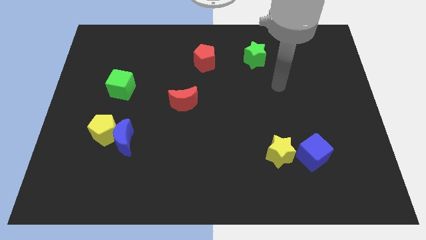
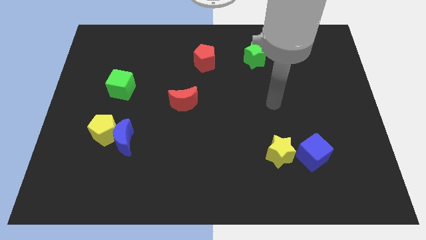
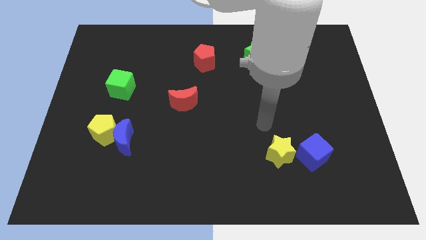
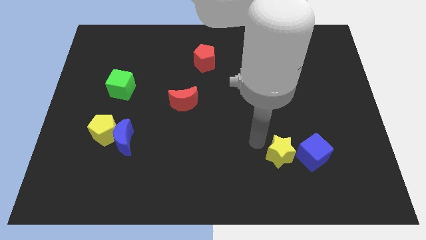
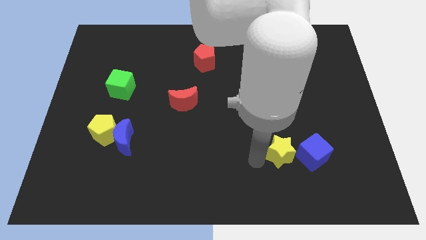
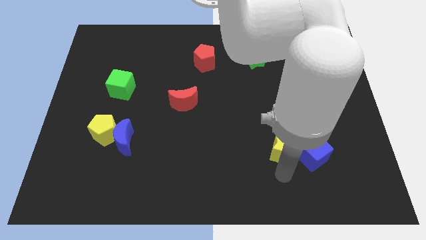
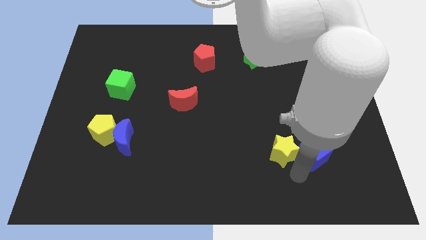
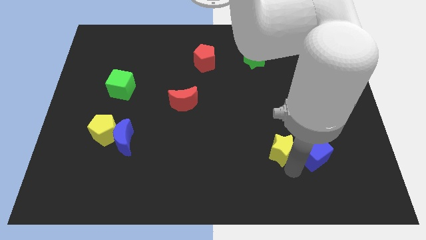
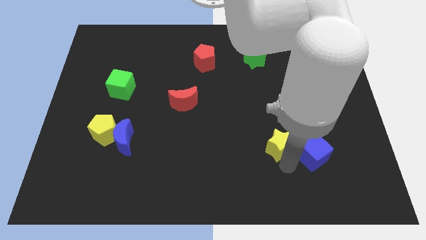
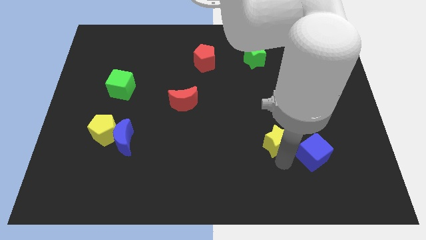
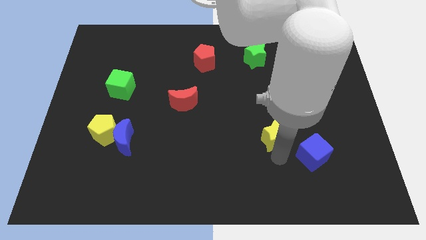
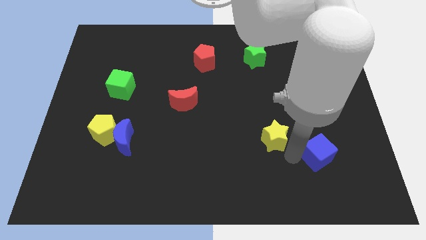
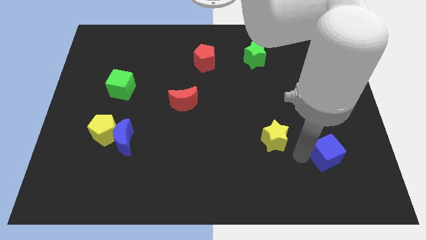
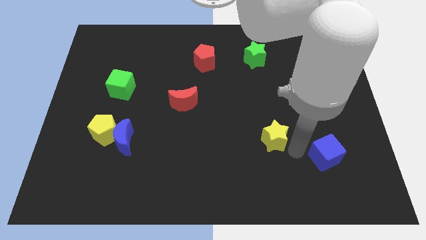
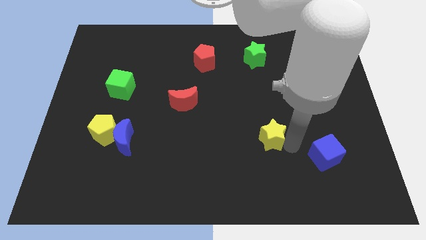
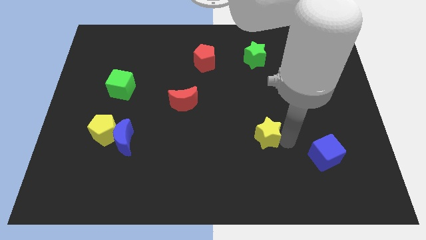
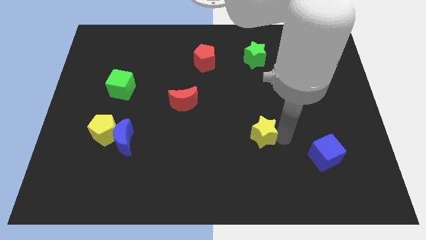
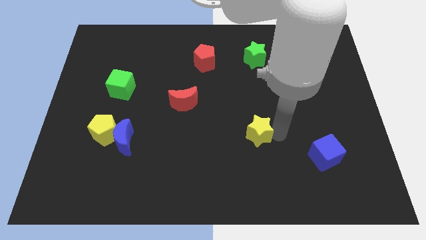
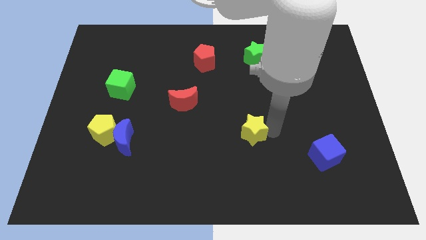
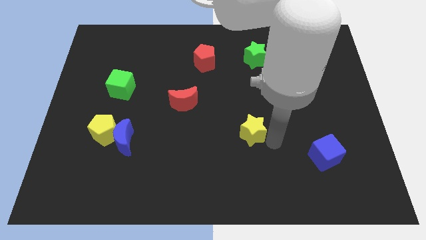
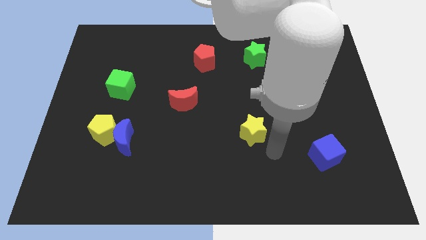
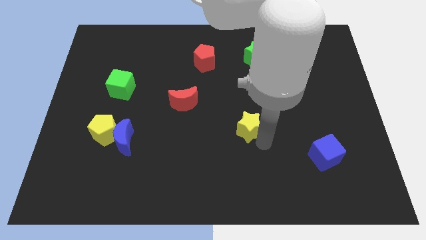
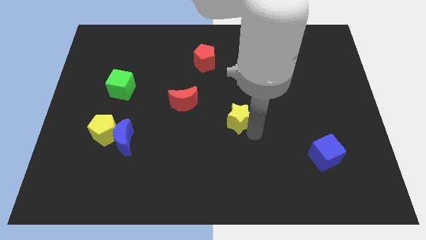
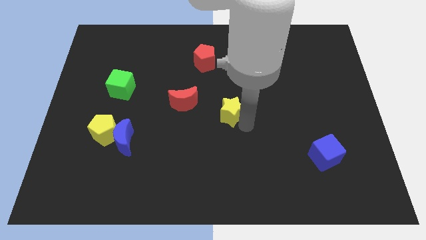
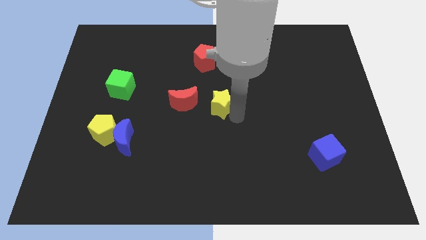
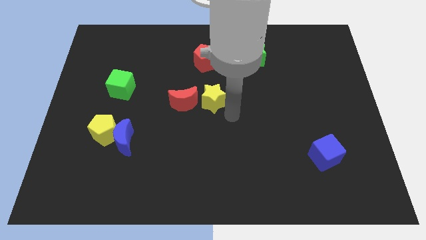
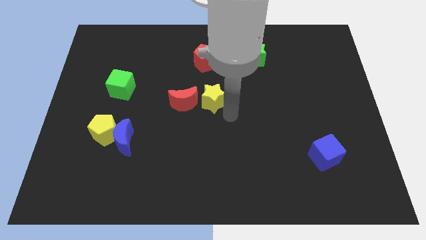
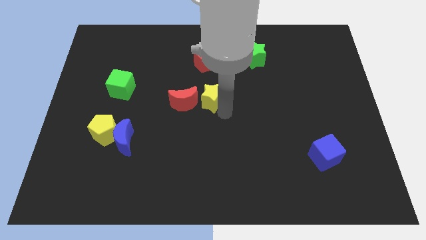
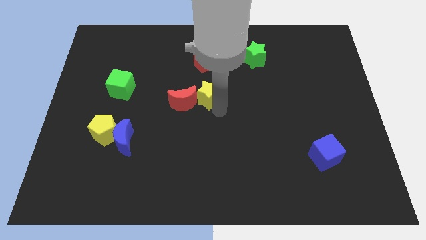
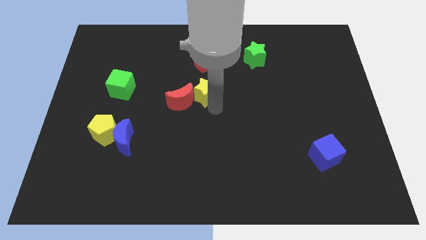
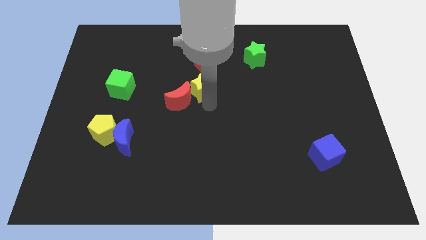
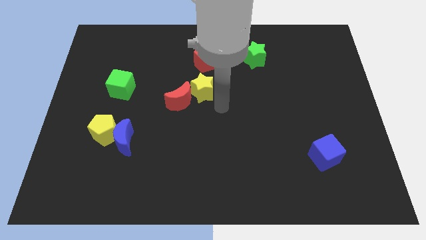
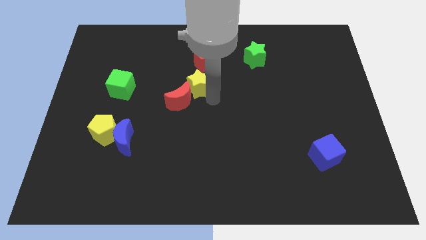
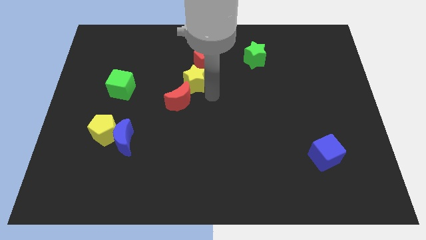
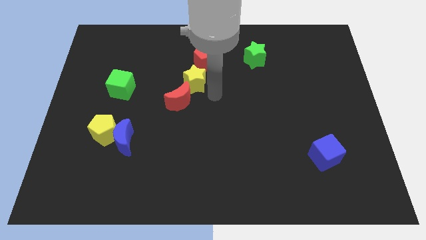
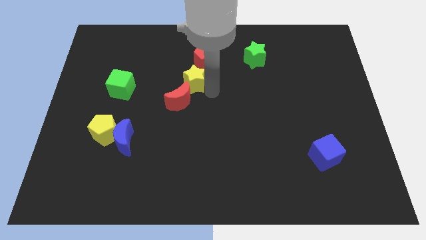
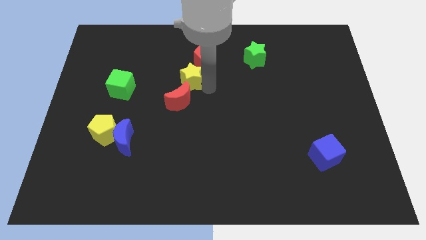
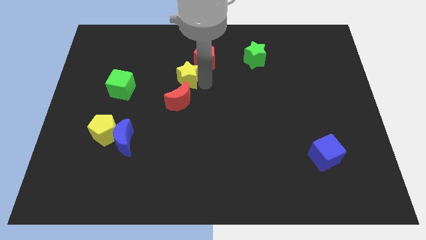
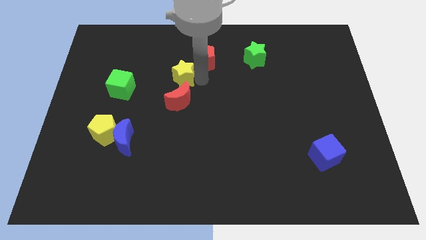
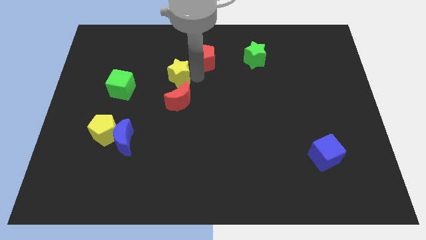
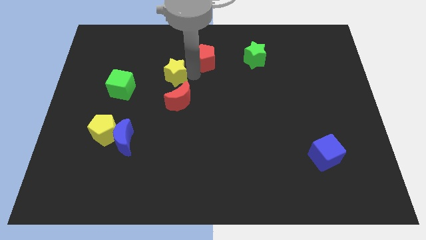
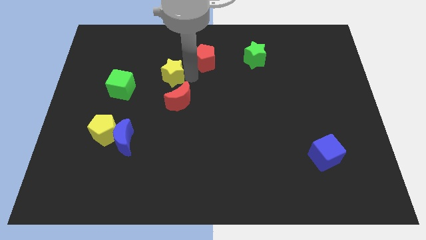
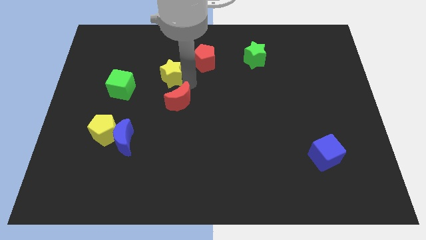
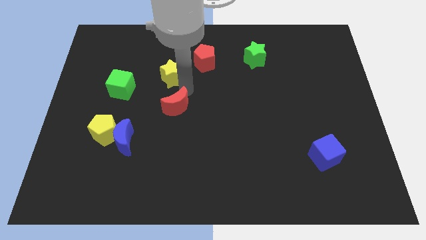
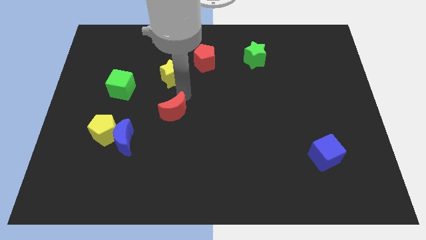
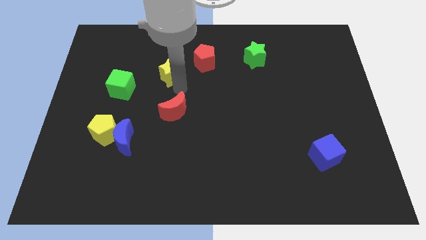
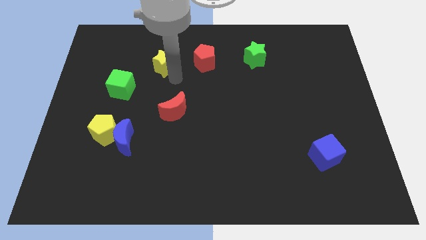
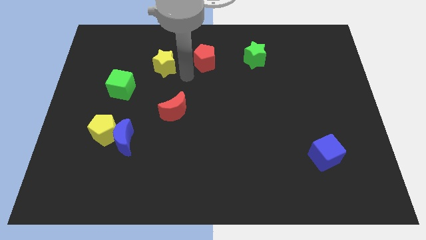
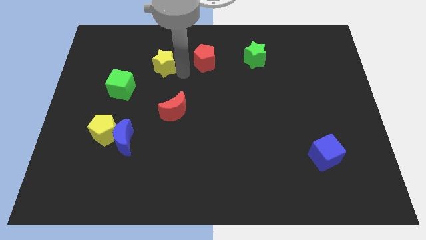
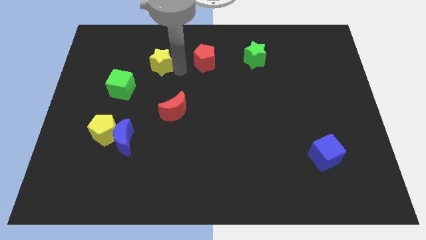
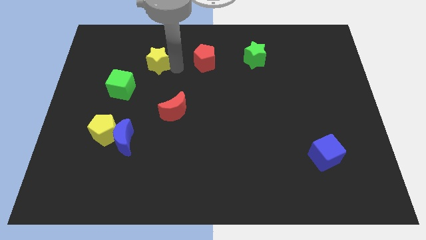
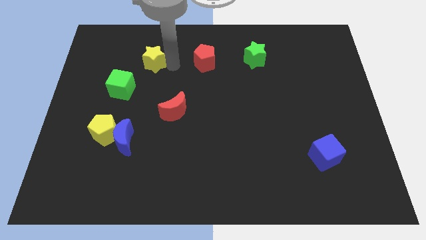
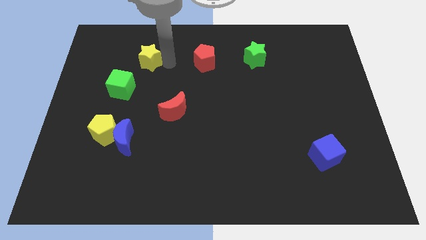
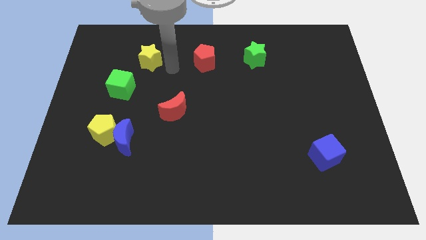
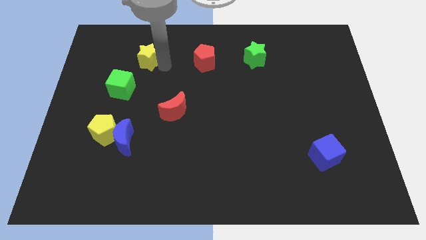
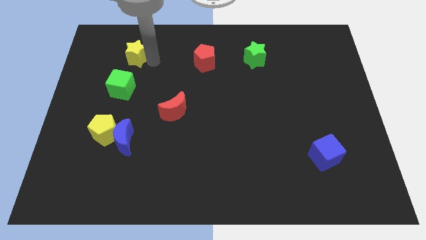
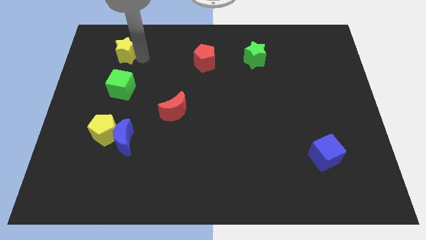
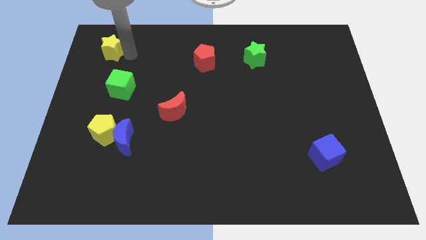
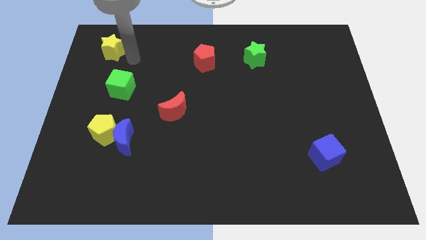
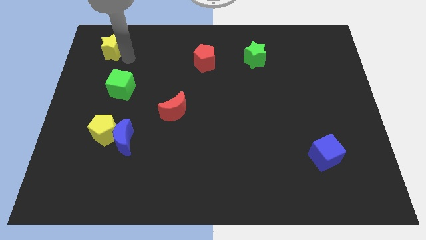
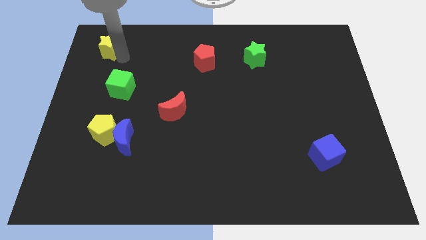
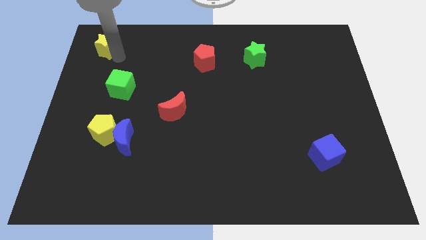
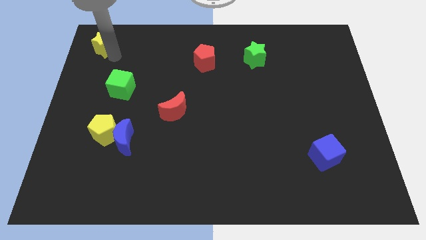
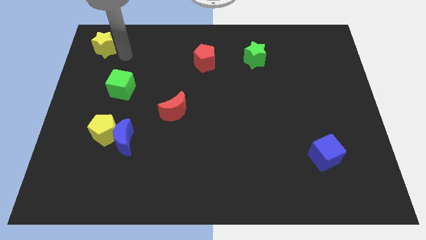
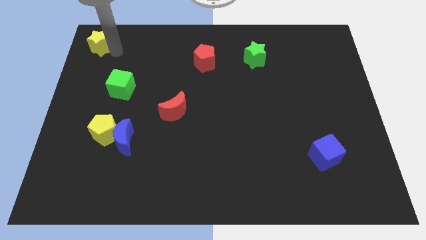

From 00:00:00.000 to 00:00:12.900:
move the yellow star to the top left corner
